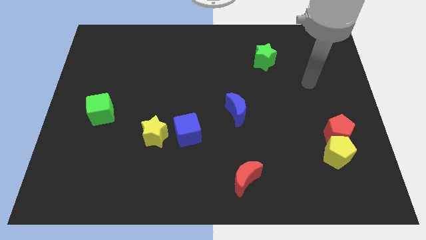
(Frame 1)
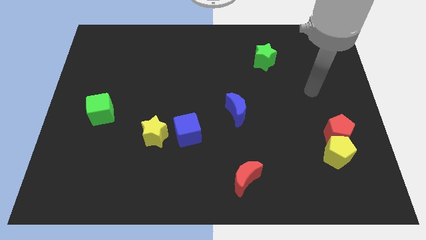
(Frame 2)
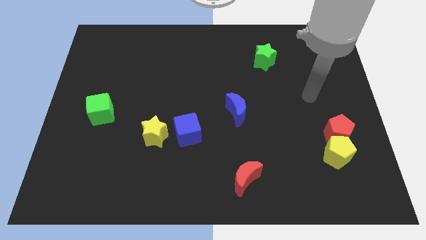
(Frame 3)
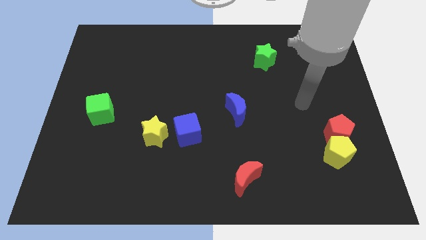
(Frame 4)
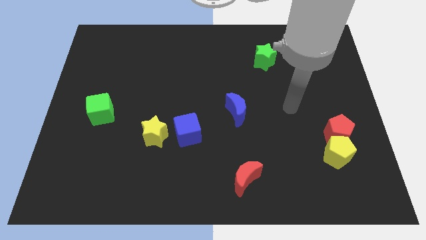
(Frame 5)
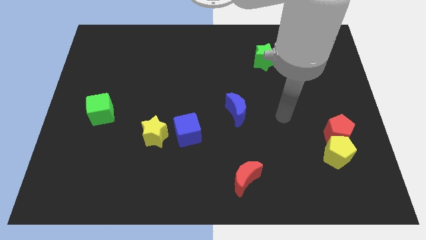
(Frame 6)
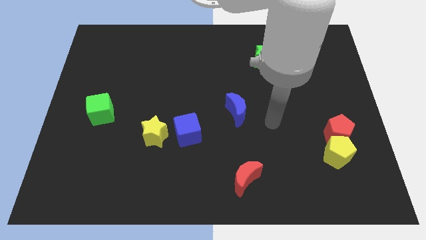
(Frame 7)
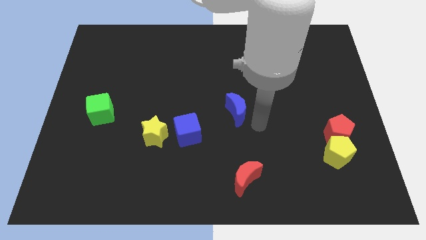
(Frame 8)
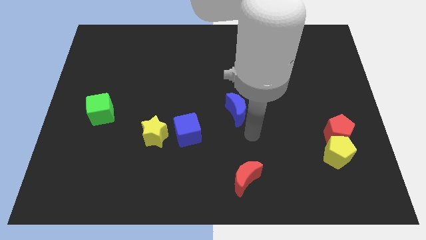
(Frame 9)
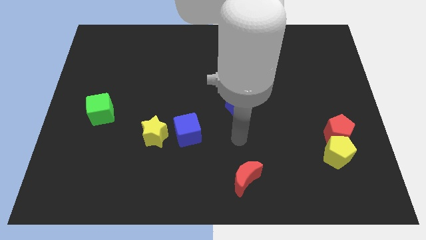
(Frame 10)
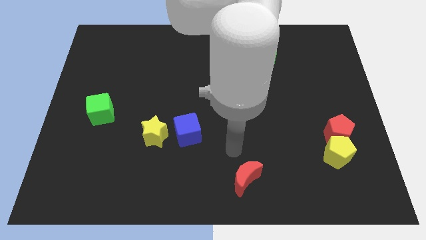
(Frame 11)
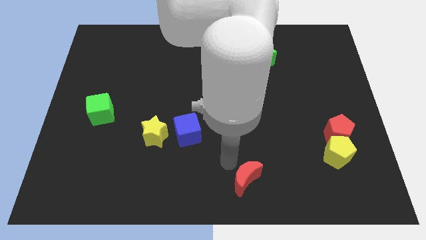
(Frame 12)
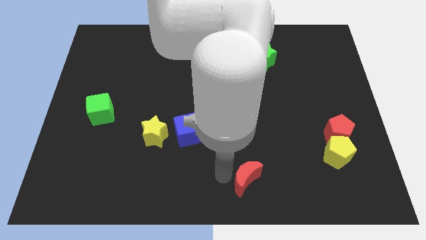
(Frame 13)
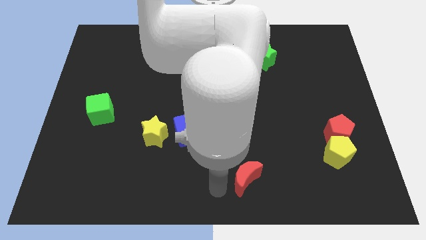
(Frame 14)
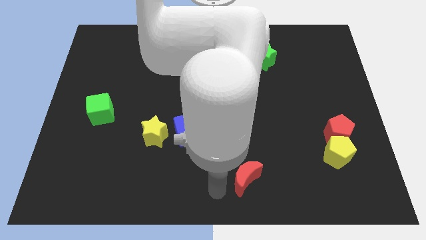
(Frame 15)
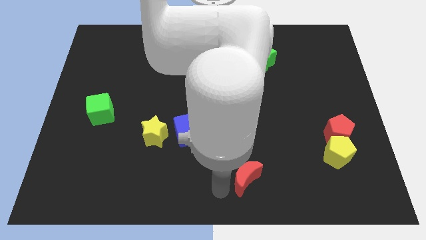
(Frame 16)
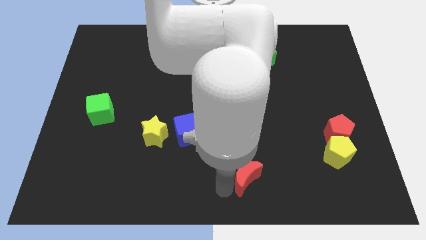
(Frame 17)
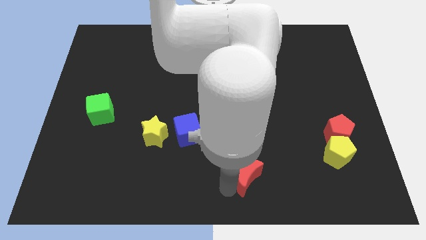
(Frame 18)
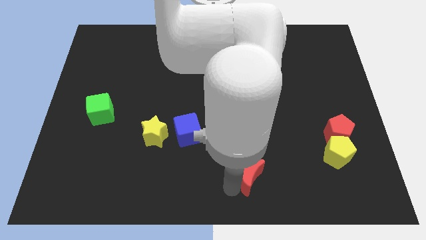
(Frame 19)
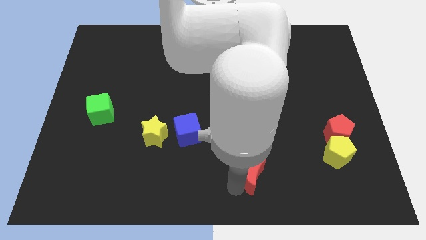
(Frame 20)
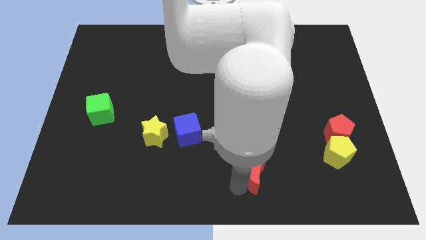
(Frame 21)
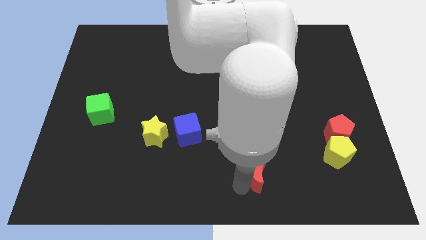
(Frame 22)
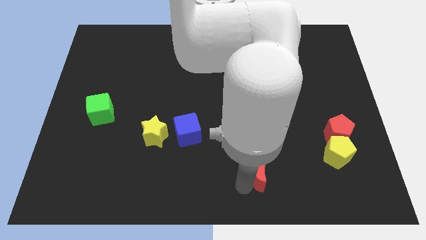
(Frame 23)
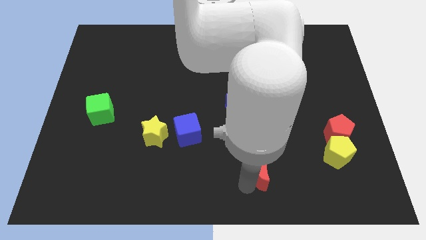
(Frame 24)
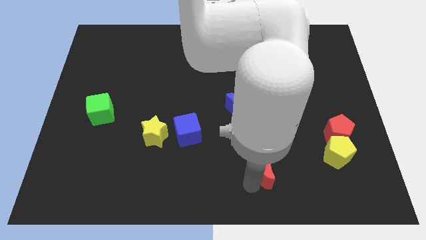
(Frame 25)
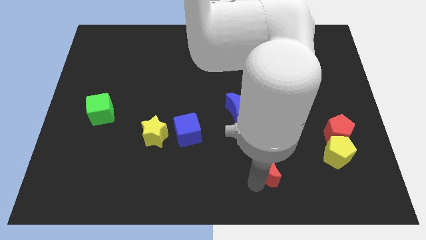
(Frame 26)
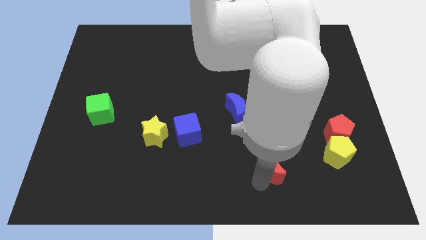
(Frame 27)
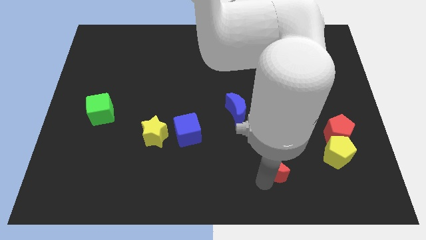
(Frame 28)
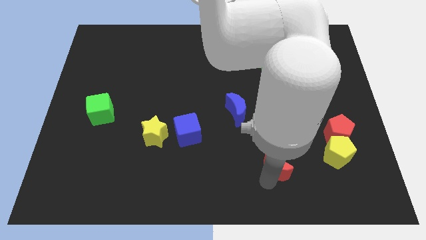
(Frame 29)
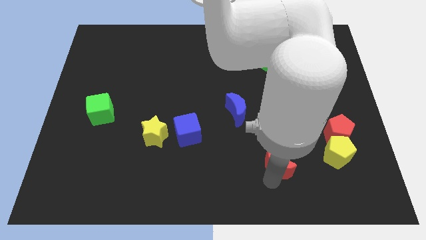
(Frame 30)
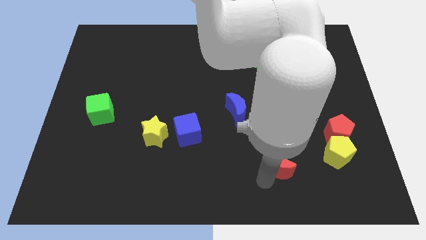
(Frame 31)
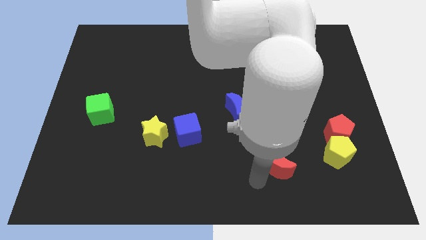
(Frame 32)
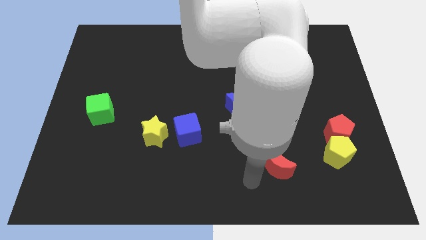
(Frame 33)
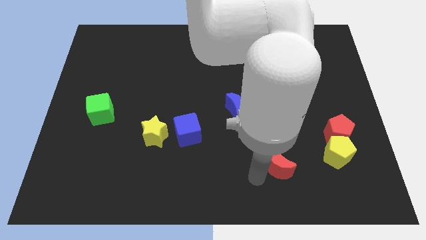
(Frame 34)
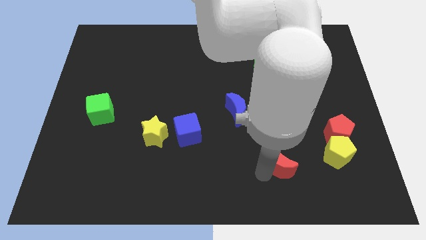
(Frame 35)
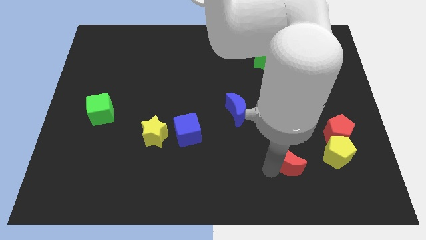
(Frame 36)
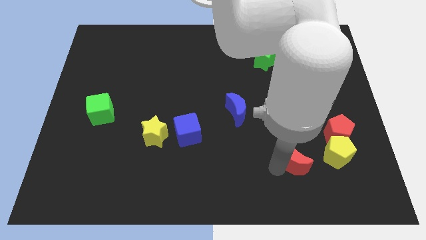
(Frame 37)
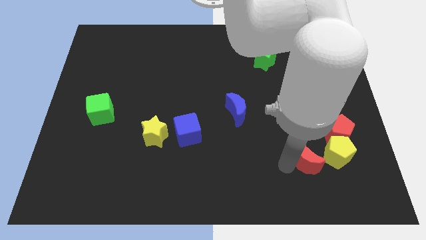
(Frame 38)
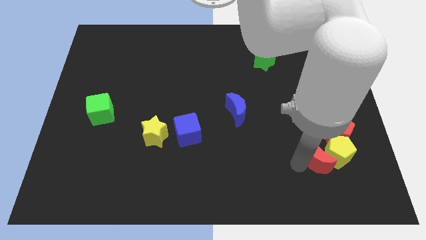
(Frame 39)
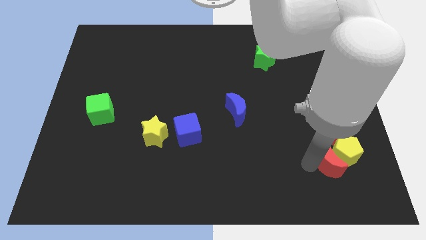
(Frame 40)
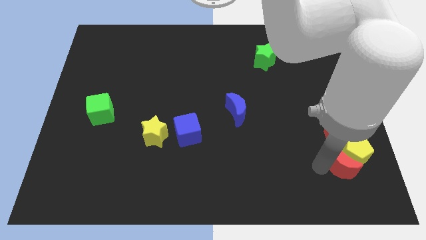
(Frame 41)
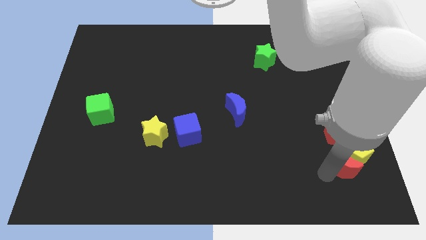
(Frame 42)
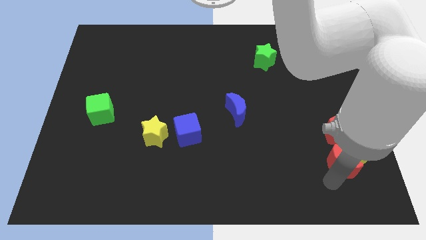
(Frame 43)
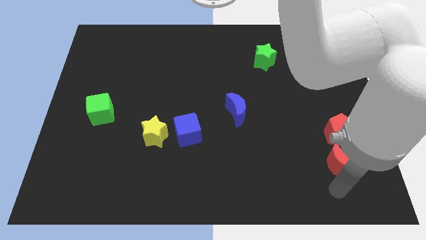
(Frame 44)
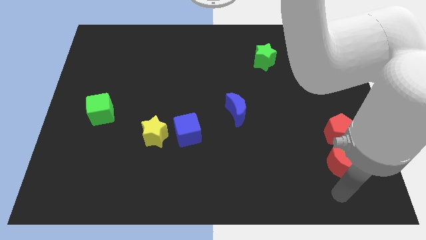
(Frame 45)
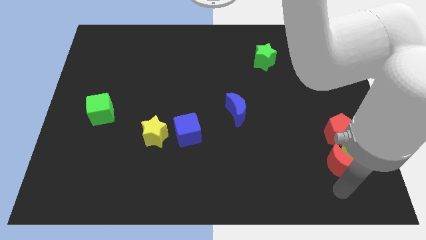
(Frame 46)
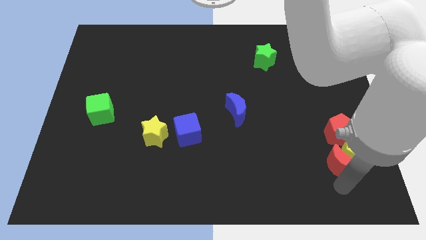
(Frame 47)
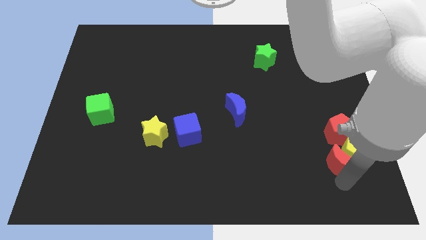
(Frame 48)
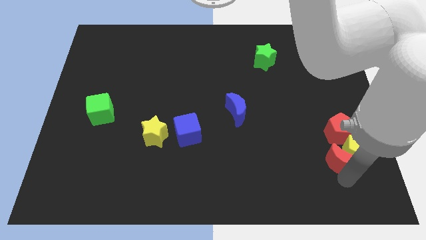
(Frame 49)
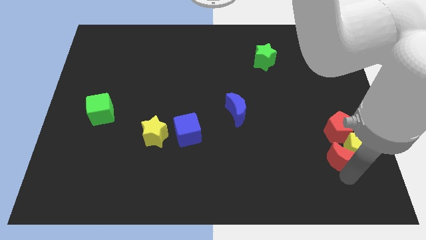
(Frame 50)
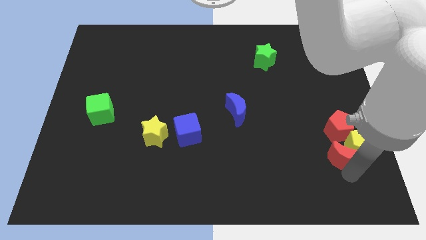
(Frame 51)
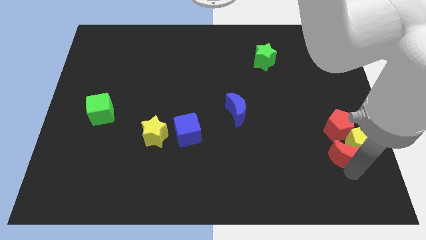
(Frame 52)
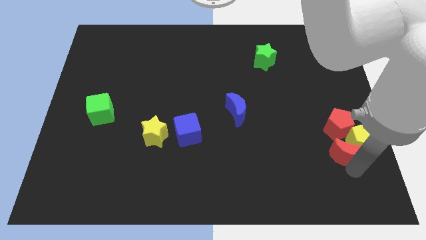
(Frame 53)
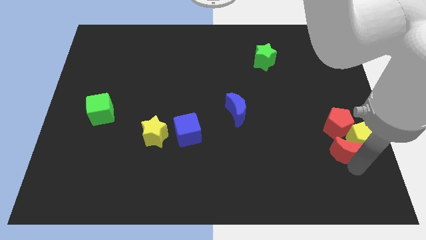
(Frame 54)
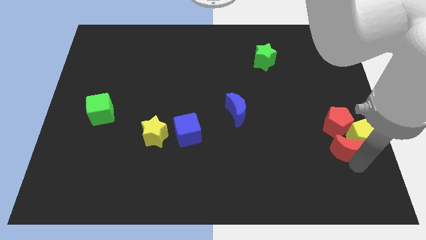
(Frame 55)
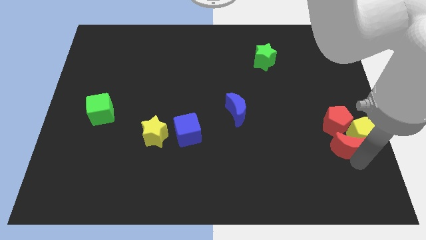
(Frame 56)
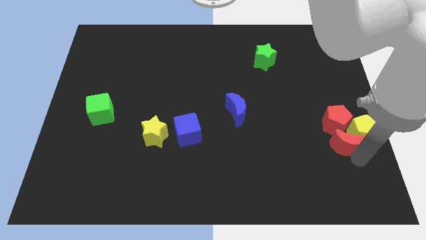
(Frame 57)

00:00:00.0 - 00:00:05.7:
put the red moon close to the red pentagon

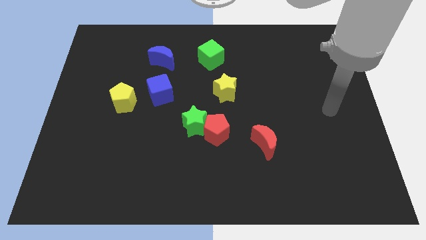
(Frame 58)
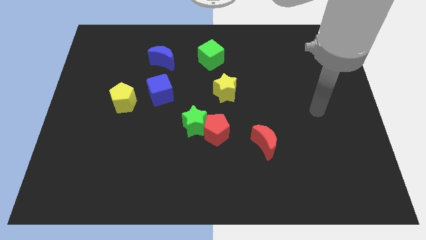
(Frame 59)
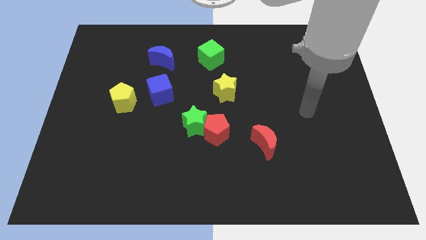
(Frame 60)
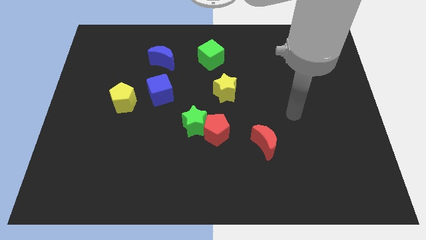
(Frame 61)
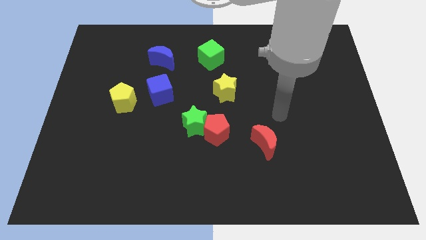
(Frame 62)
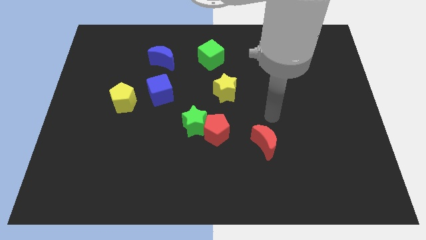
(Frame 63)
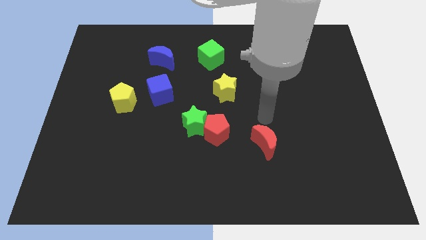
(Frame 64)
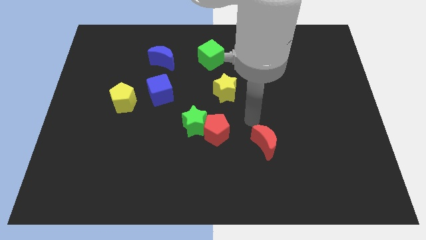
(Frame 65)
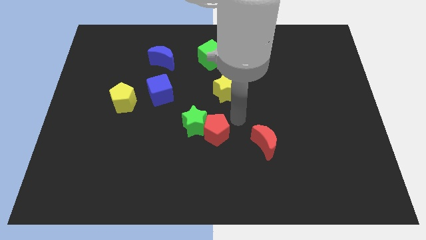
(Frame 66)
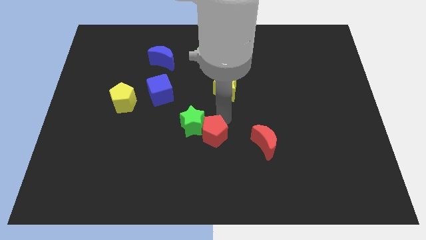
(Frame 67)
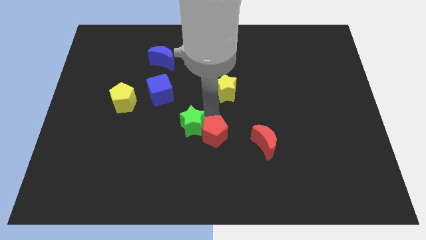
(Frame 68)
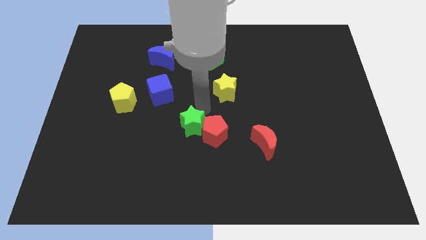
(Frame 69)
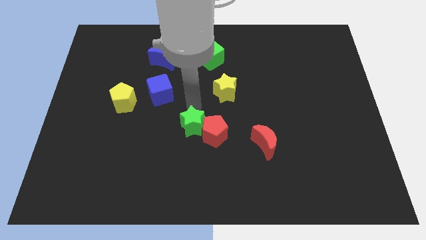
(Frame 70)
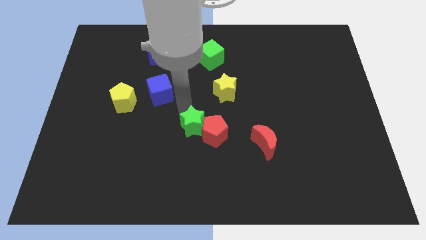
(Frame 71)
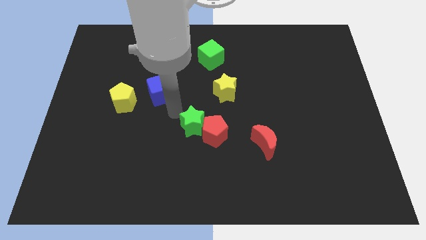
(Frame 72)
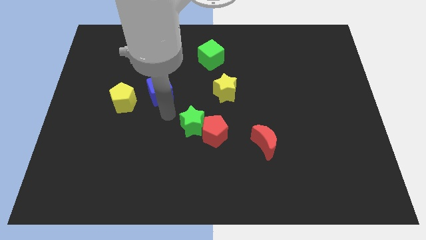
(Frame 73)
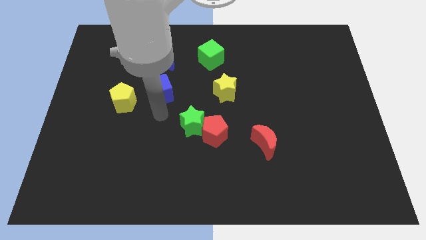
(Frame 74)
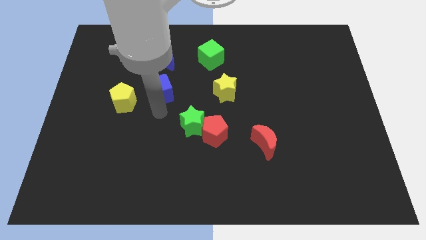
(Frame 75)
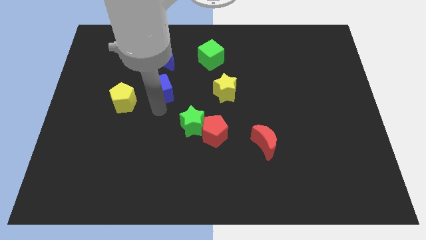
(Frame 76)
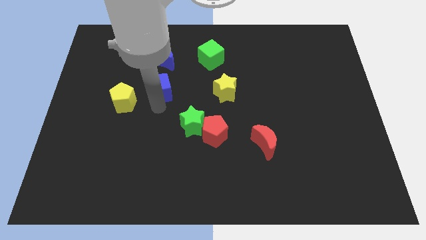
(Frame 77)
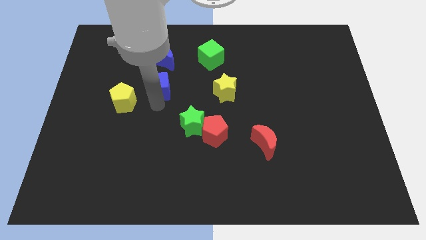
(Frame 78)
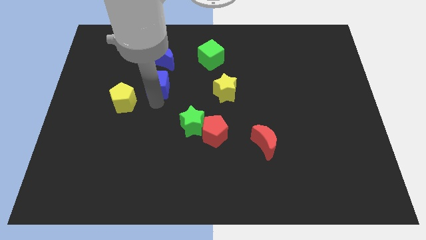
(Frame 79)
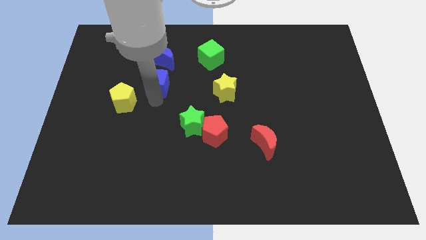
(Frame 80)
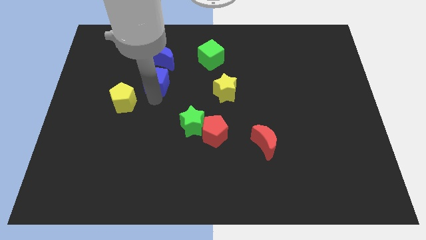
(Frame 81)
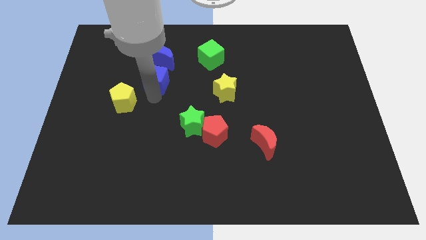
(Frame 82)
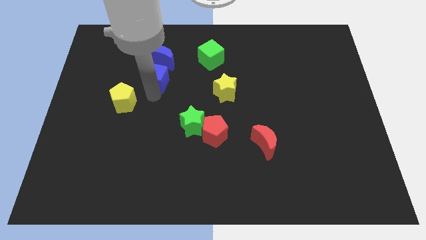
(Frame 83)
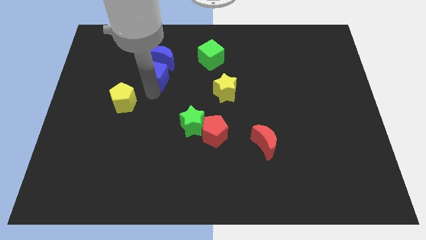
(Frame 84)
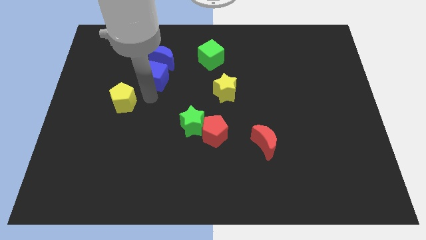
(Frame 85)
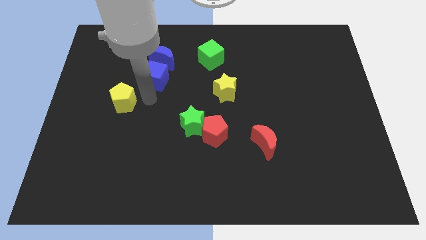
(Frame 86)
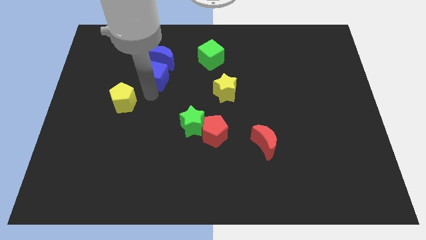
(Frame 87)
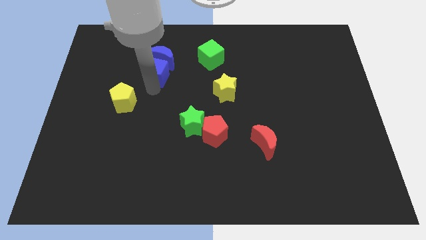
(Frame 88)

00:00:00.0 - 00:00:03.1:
put the blue cube to the blue moon
